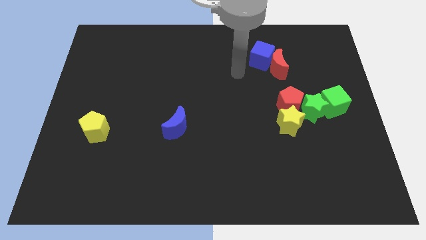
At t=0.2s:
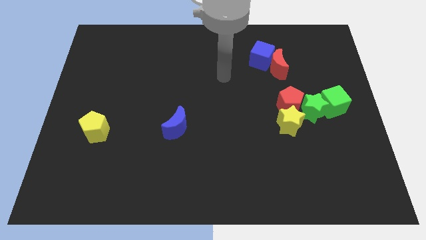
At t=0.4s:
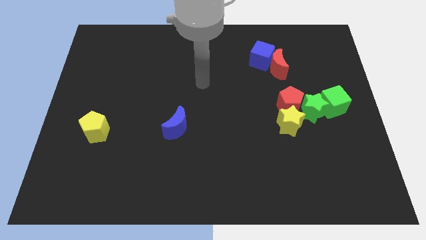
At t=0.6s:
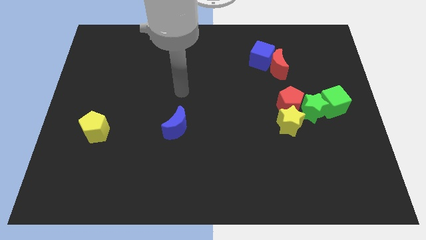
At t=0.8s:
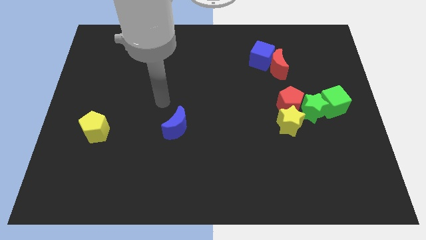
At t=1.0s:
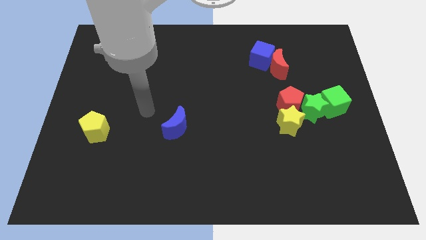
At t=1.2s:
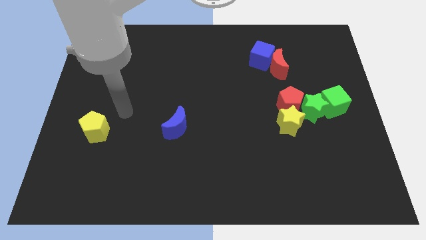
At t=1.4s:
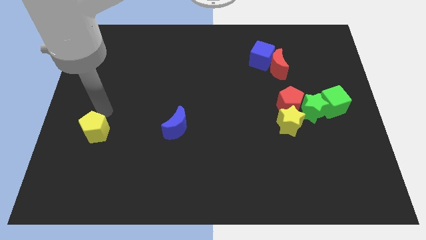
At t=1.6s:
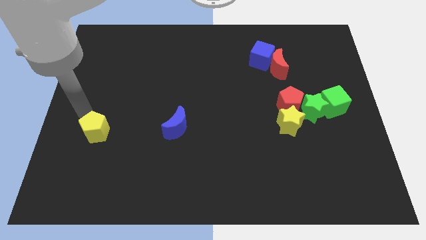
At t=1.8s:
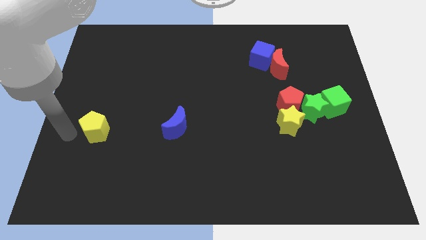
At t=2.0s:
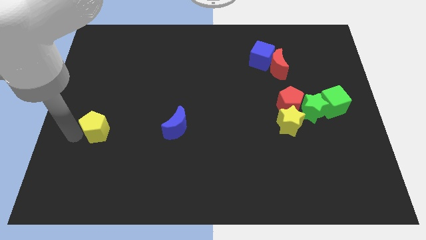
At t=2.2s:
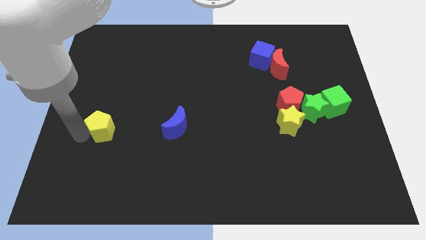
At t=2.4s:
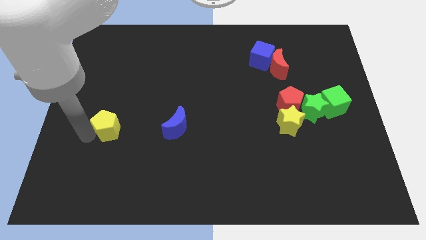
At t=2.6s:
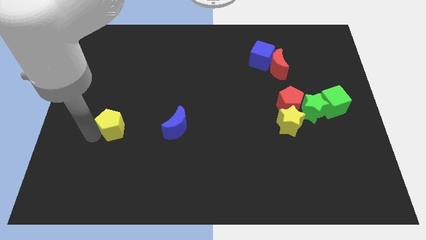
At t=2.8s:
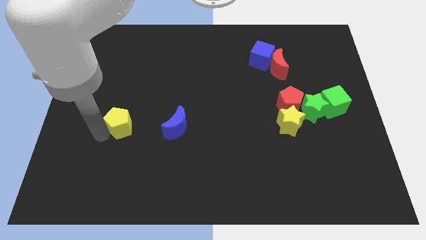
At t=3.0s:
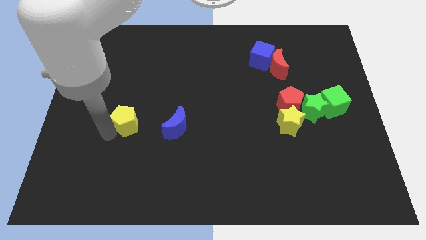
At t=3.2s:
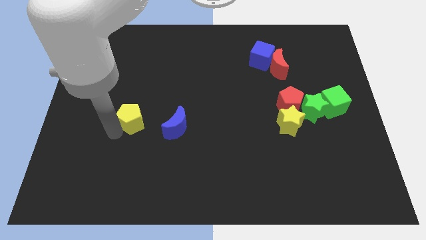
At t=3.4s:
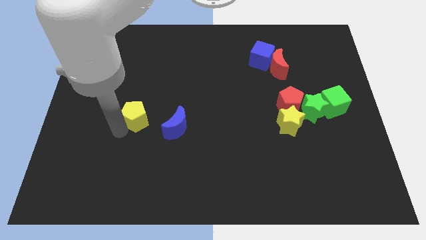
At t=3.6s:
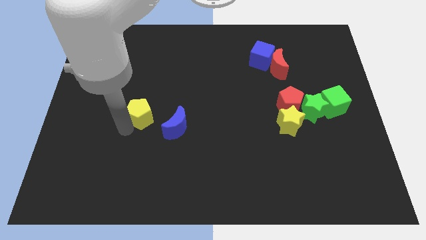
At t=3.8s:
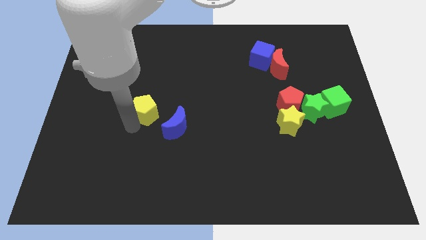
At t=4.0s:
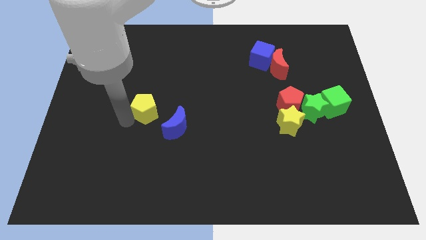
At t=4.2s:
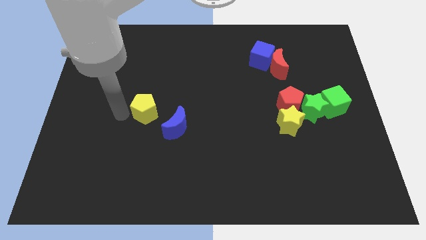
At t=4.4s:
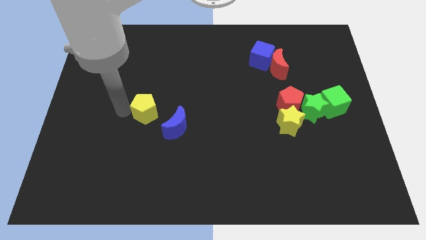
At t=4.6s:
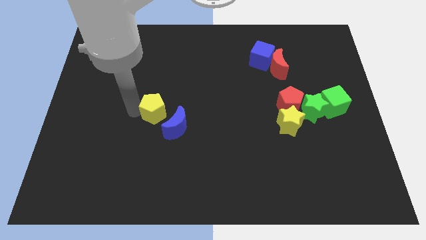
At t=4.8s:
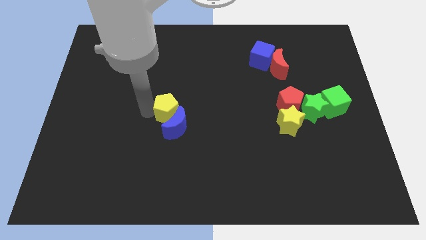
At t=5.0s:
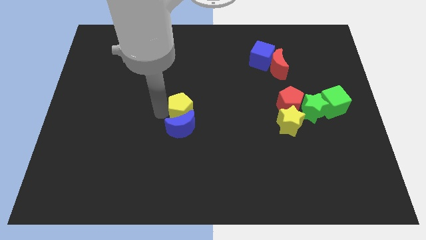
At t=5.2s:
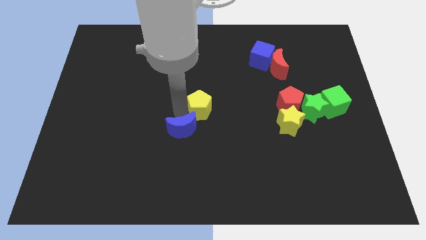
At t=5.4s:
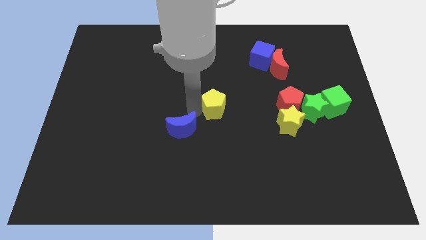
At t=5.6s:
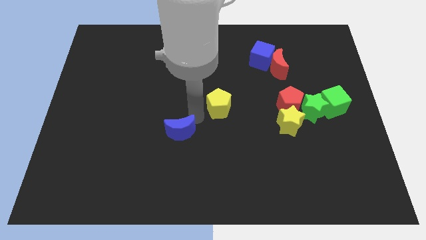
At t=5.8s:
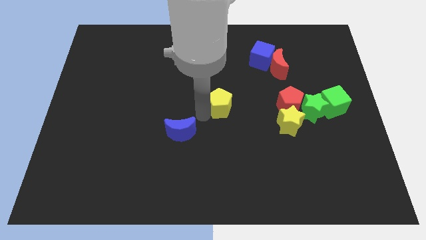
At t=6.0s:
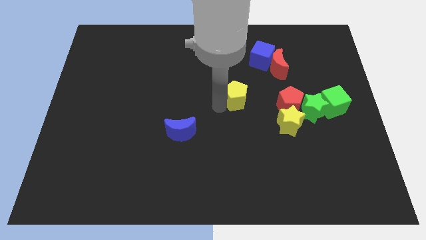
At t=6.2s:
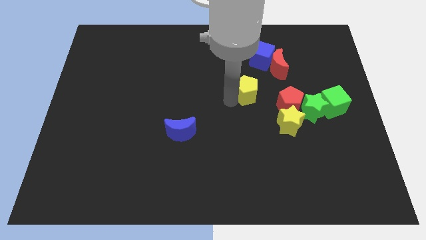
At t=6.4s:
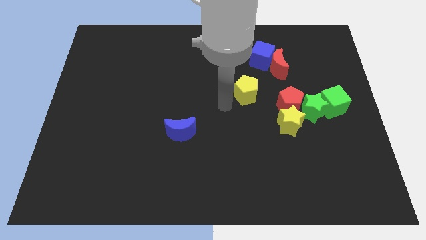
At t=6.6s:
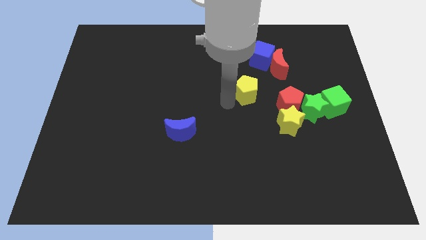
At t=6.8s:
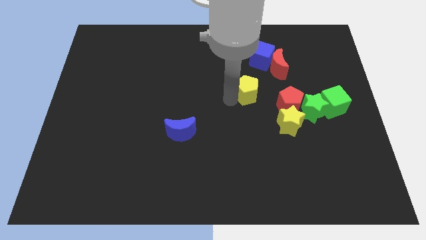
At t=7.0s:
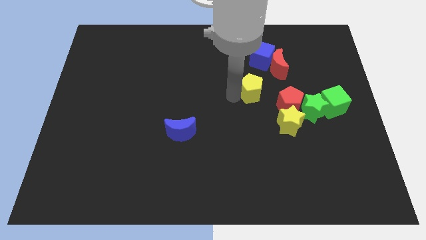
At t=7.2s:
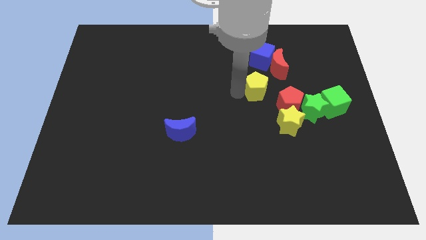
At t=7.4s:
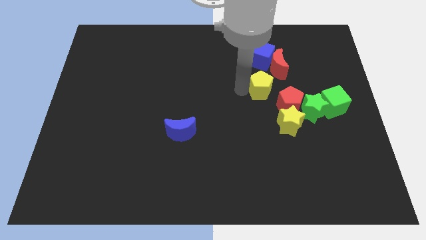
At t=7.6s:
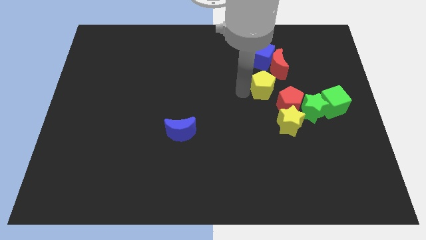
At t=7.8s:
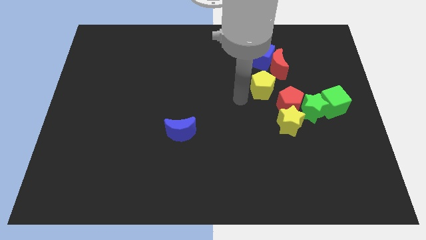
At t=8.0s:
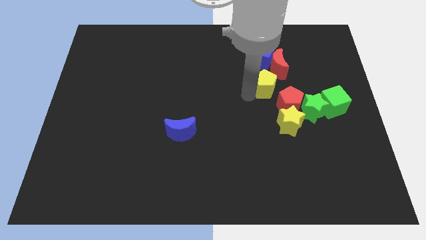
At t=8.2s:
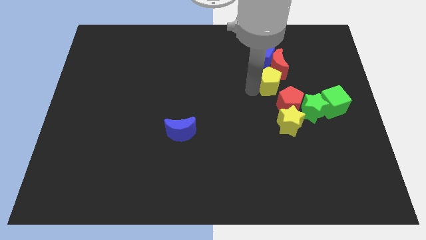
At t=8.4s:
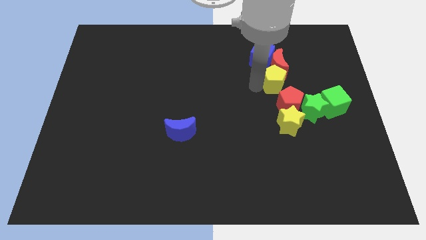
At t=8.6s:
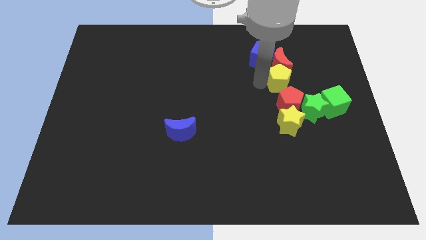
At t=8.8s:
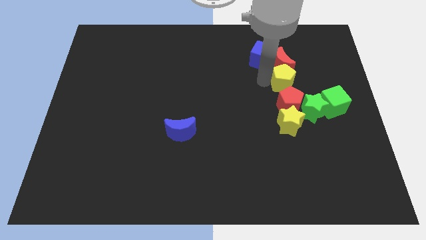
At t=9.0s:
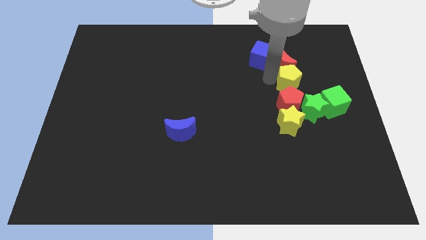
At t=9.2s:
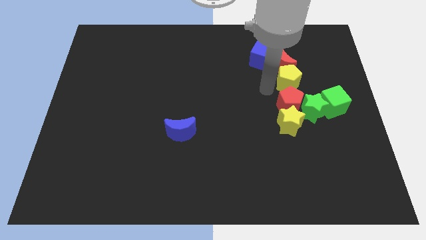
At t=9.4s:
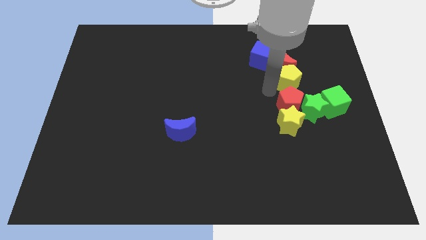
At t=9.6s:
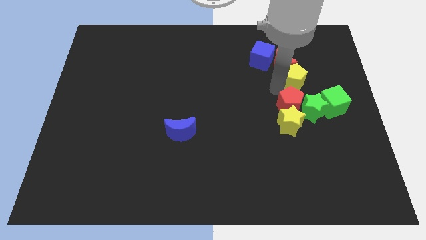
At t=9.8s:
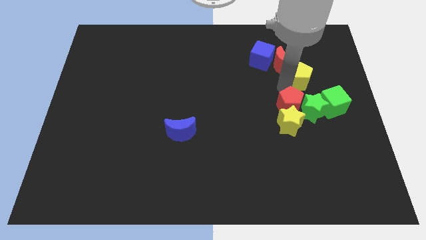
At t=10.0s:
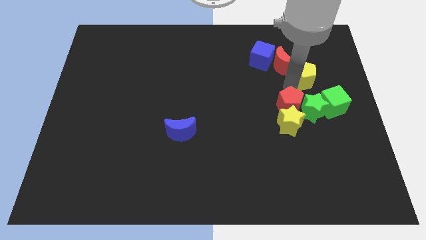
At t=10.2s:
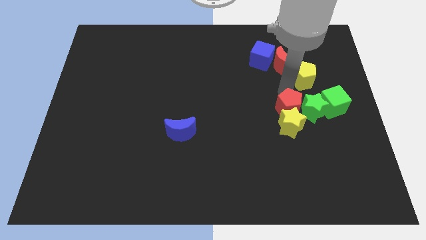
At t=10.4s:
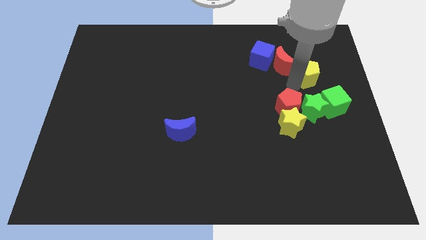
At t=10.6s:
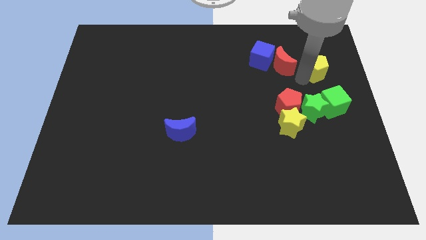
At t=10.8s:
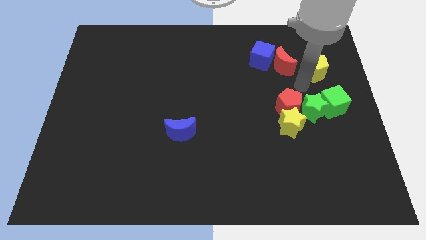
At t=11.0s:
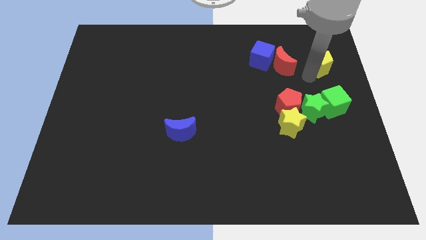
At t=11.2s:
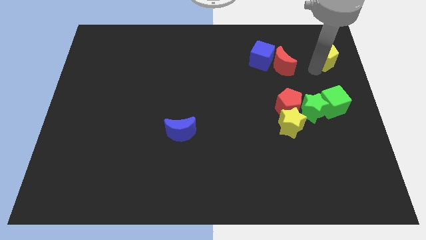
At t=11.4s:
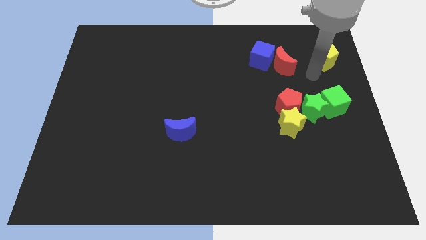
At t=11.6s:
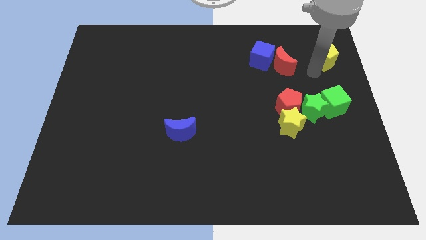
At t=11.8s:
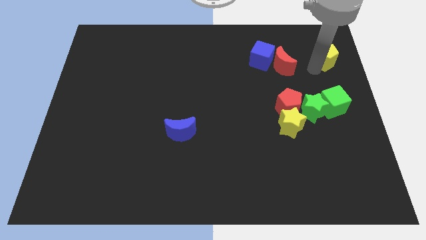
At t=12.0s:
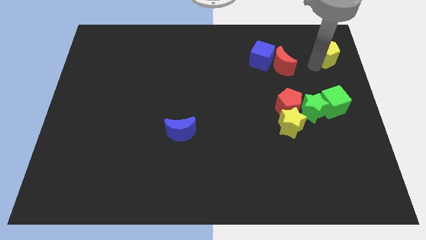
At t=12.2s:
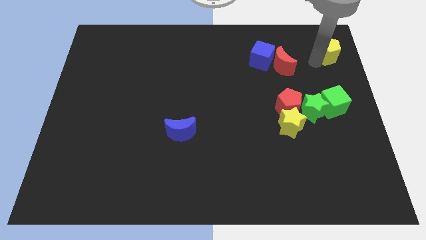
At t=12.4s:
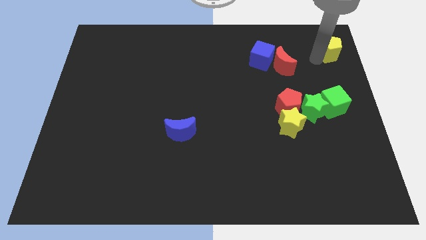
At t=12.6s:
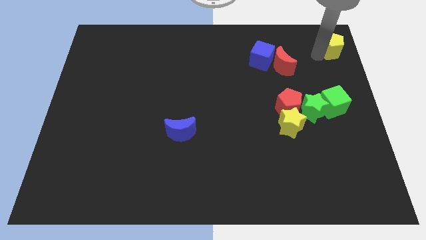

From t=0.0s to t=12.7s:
slide the yellow pentagon to the top right
